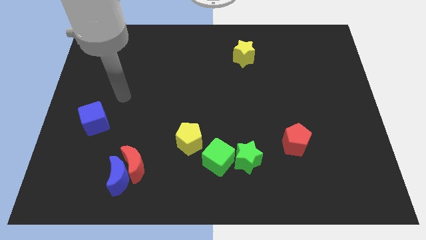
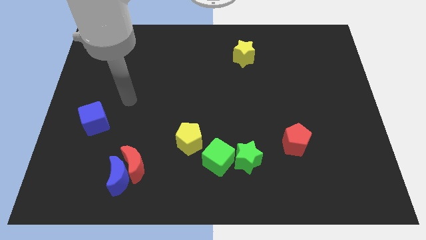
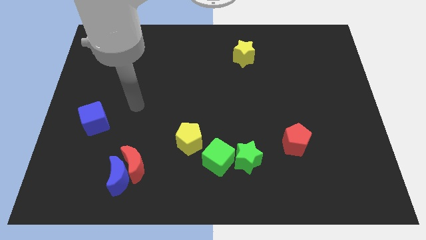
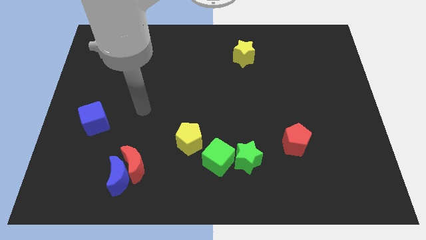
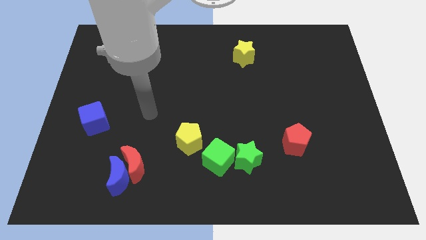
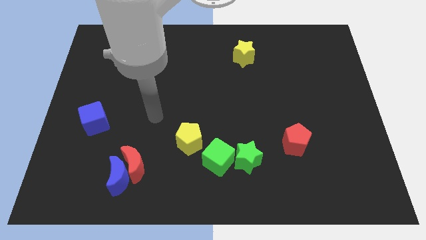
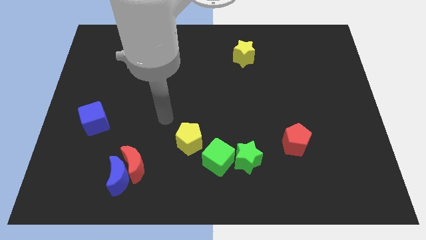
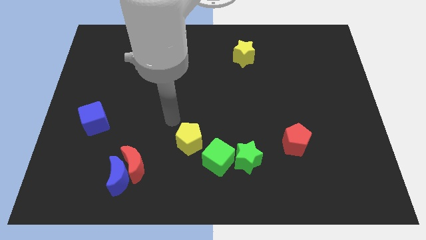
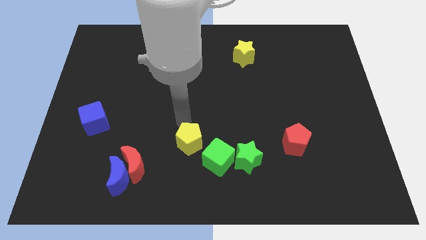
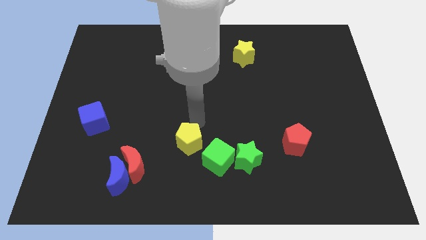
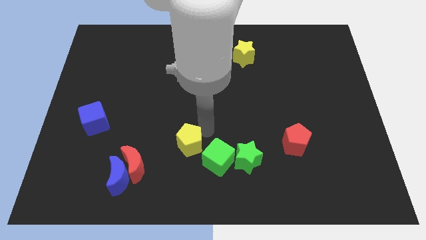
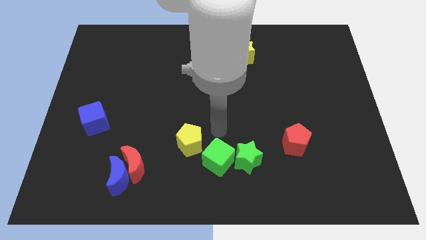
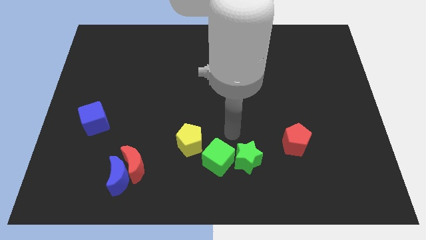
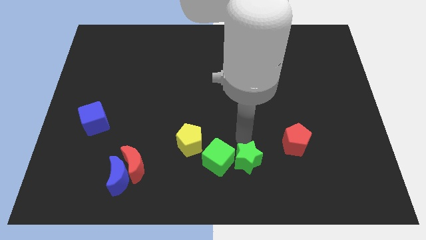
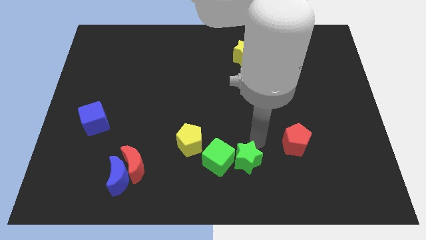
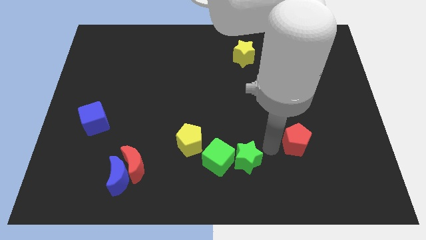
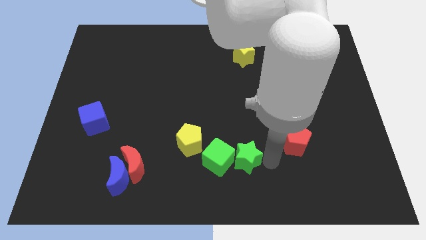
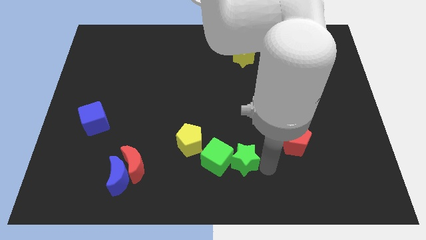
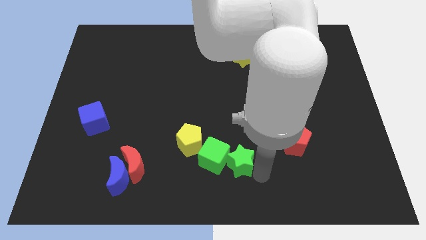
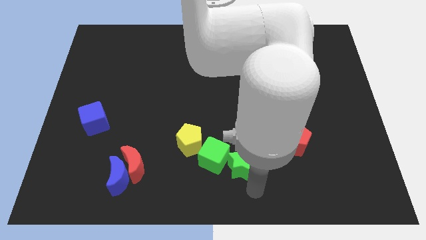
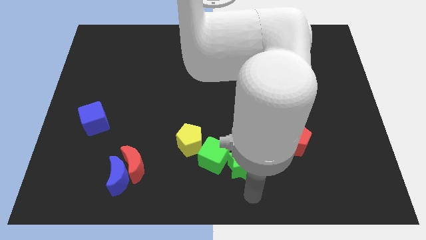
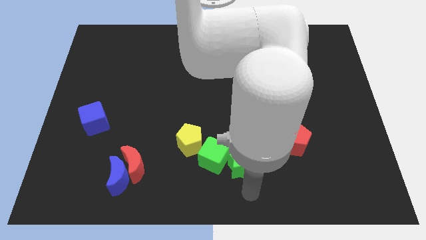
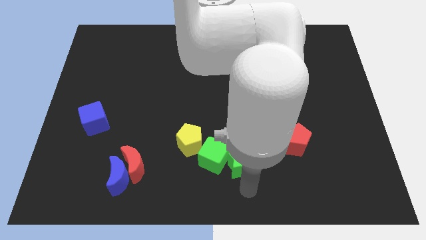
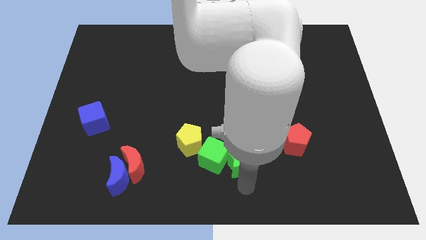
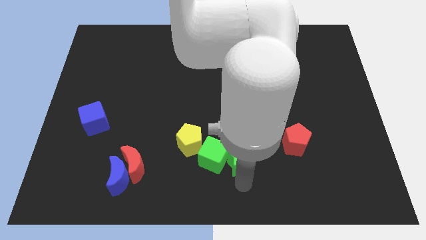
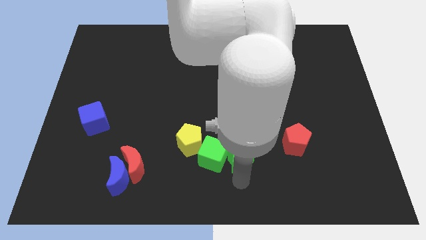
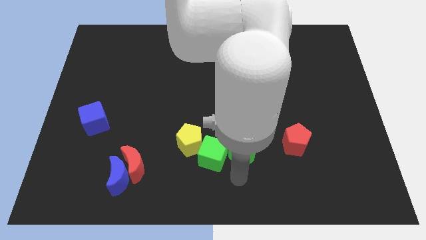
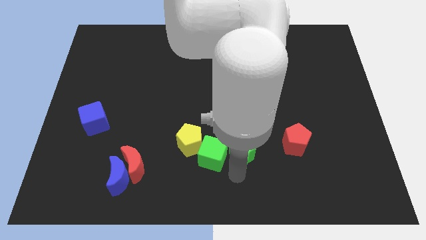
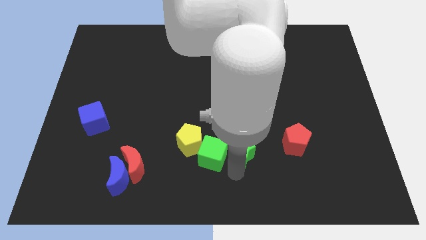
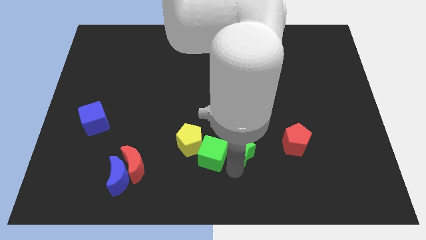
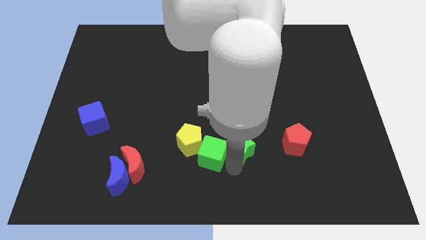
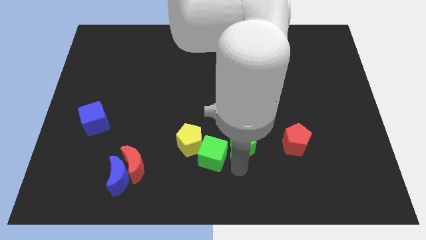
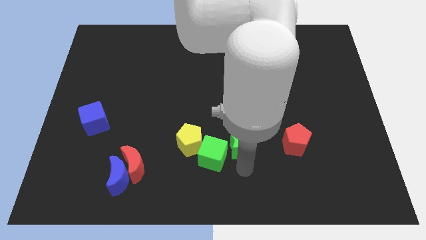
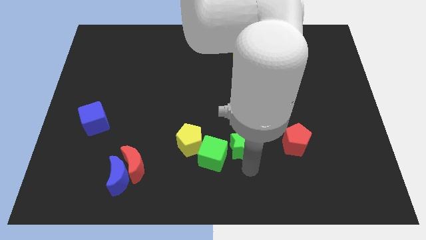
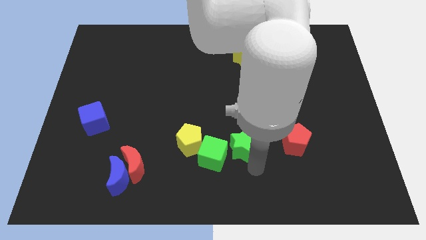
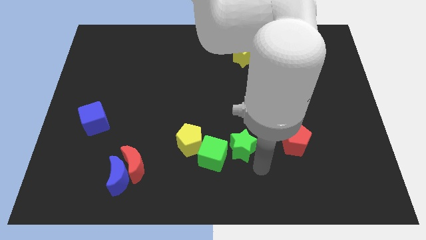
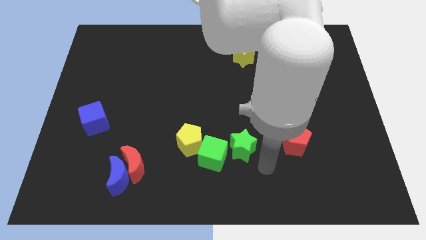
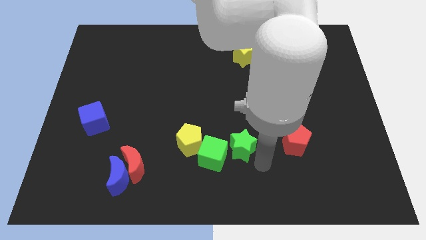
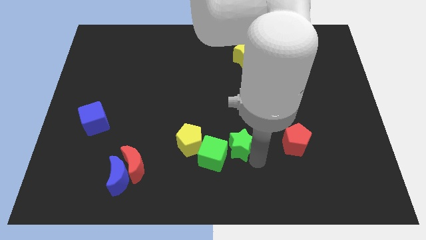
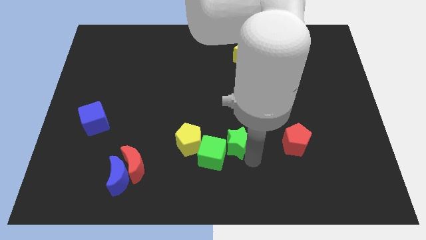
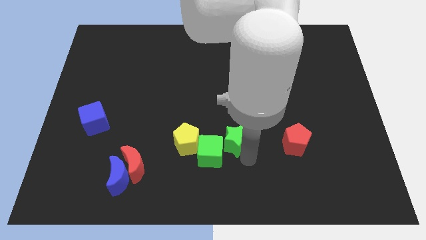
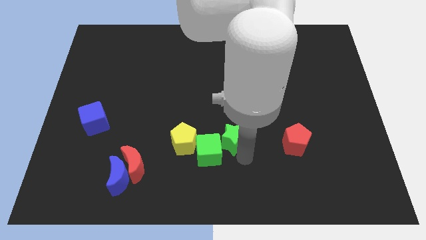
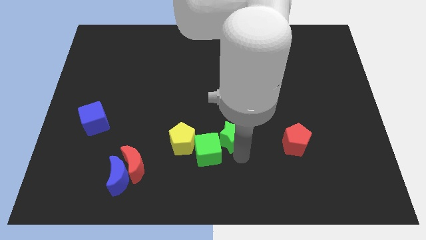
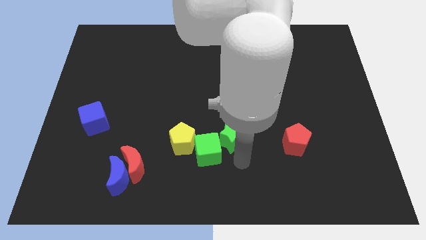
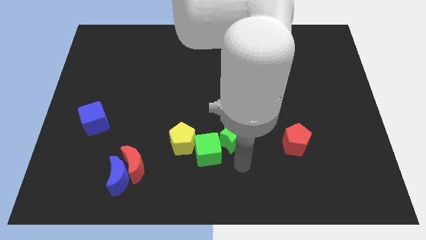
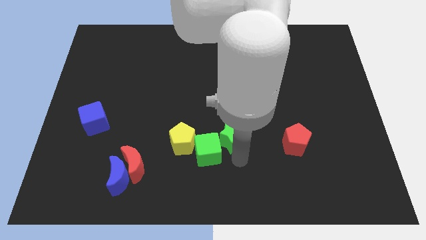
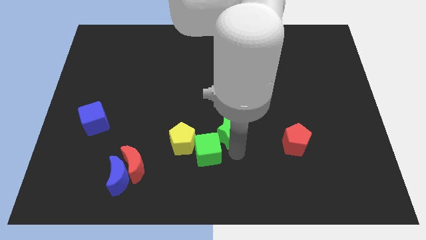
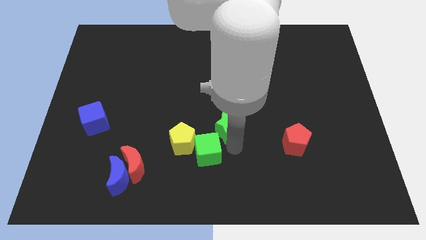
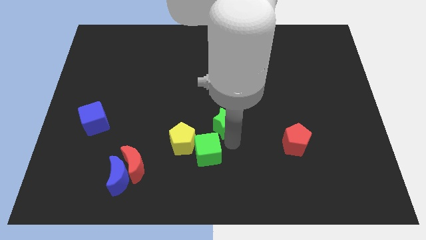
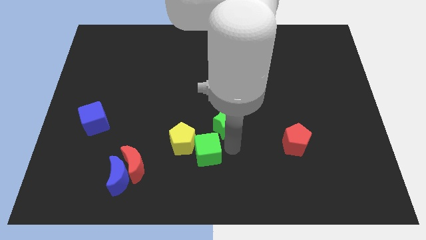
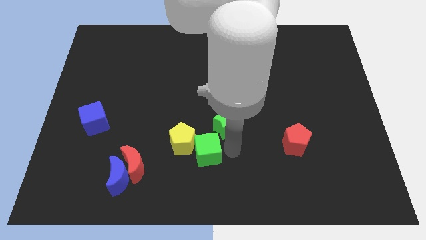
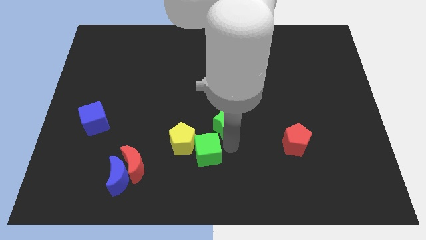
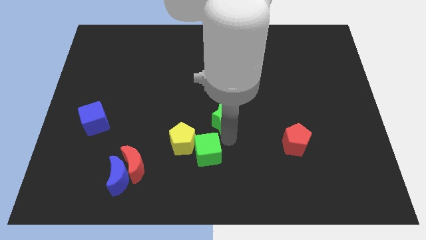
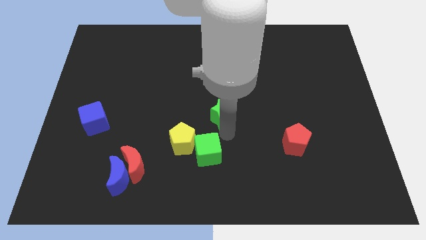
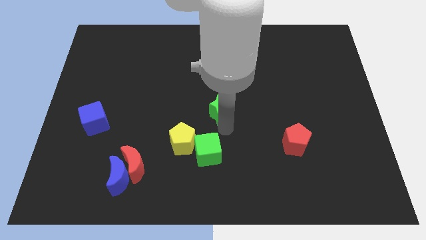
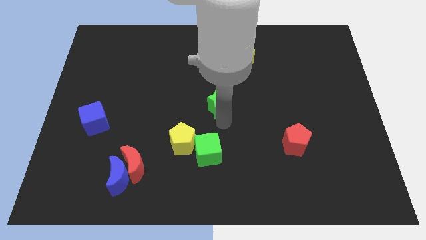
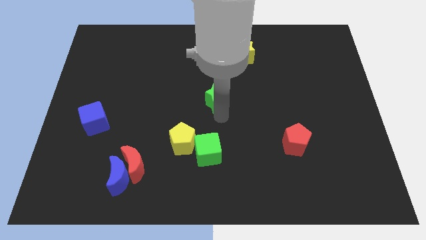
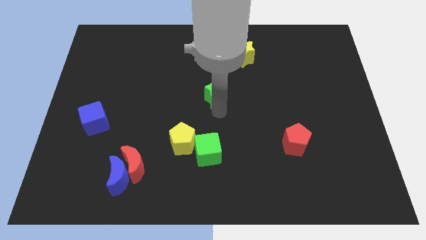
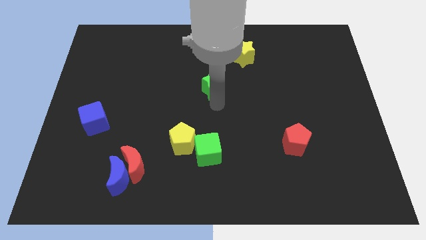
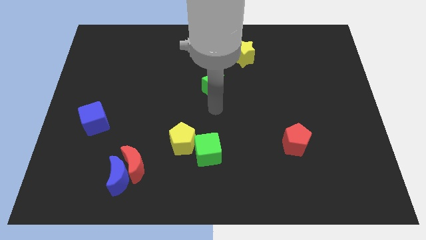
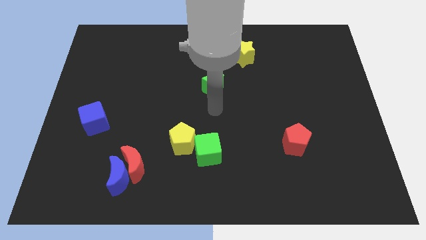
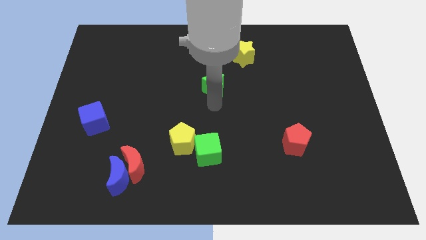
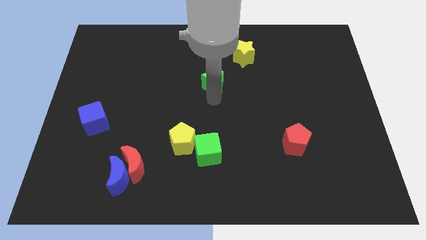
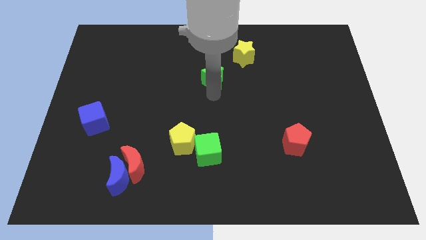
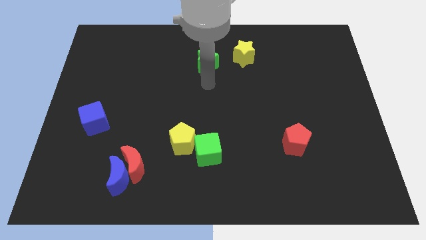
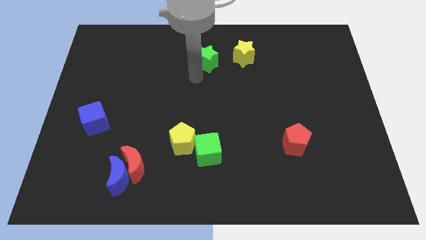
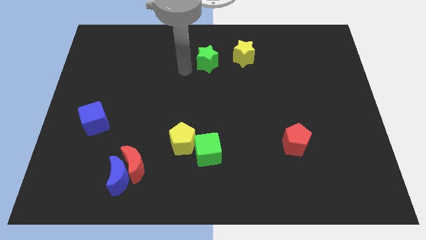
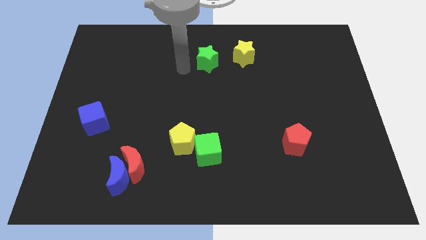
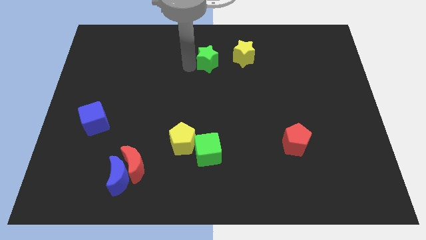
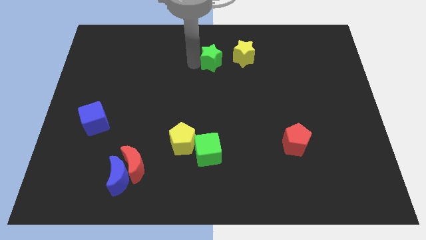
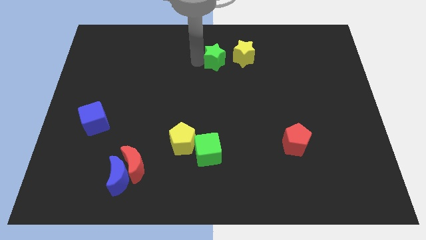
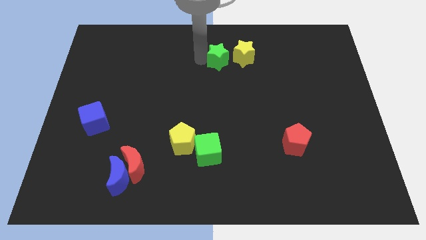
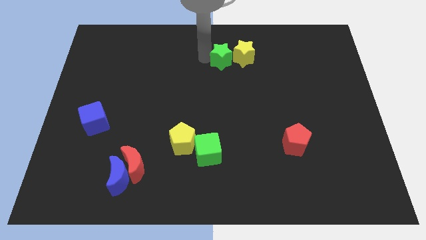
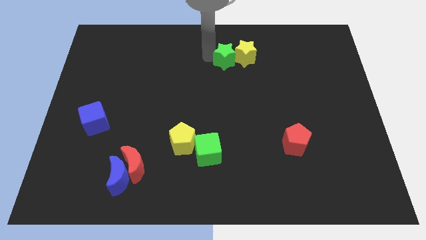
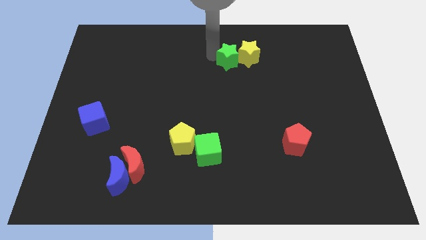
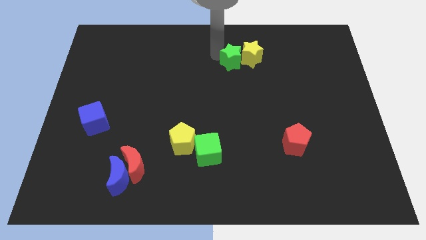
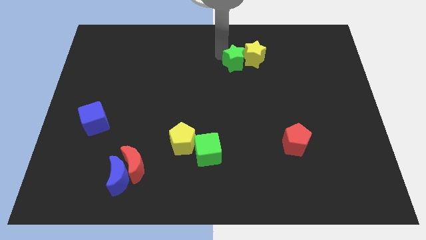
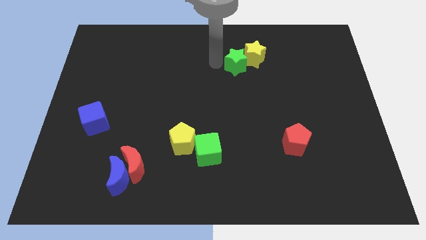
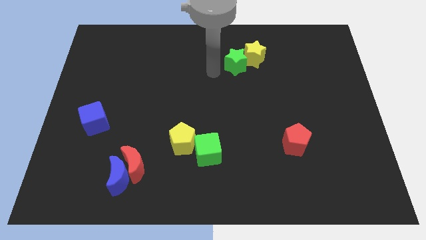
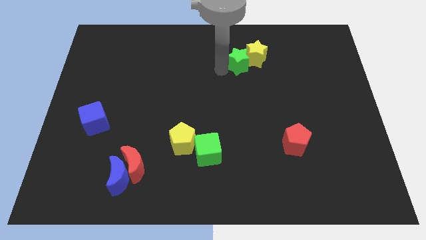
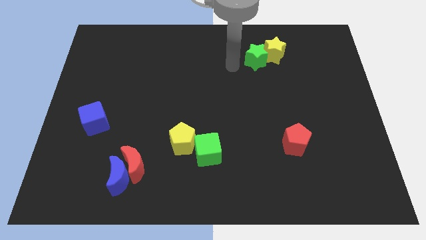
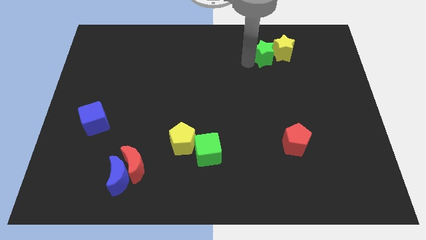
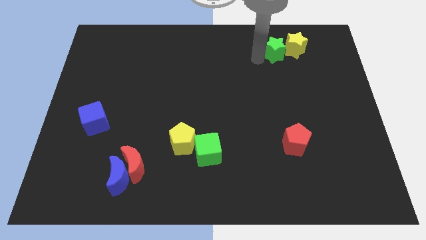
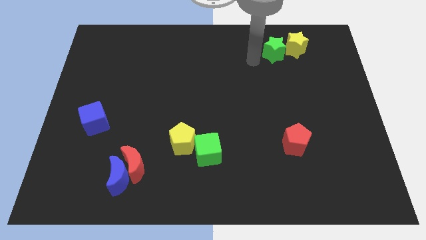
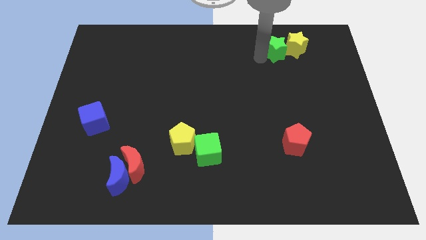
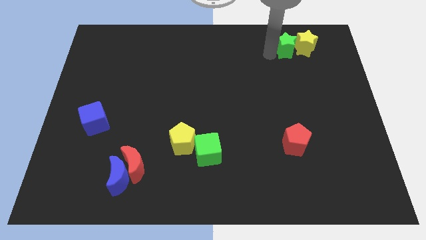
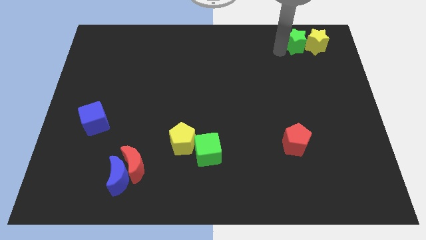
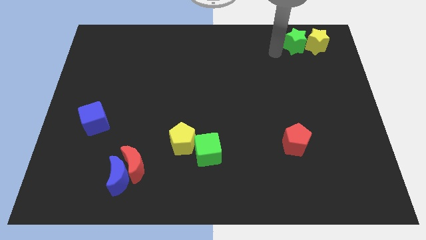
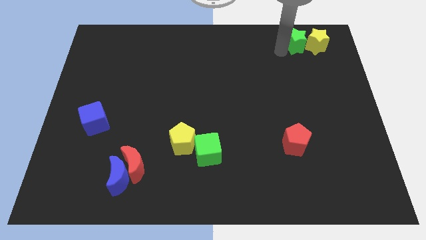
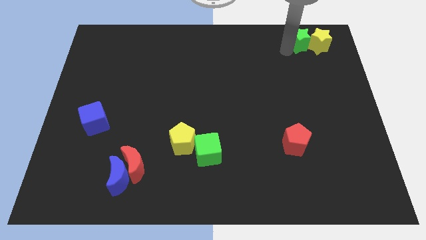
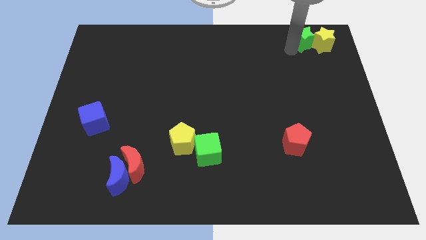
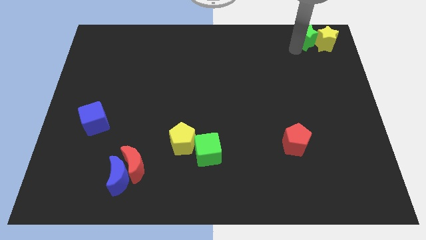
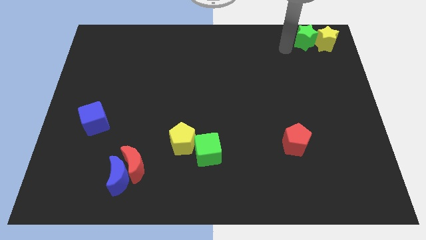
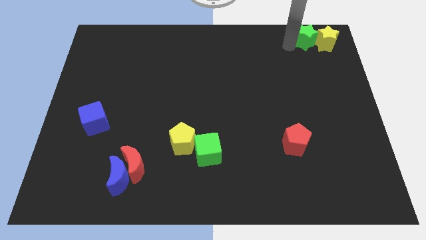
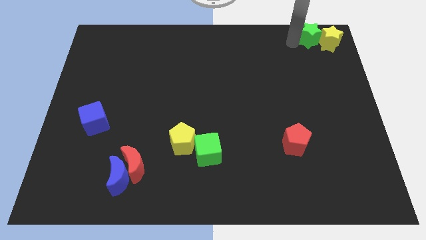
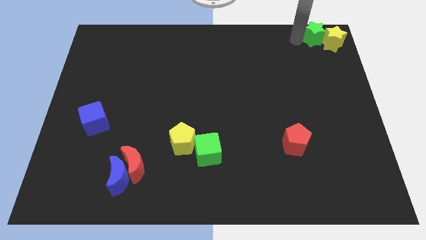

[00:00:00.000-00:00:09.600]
push the green star to the top right corner
